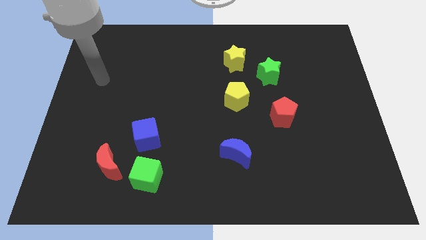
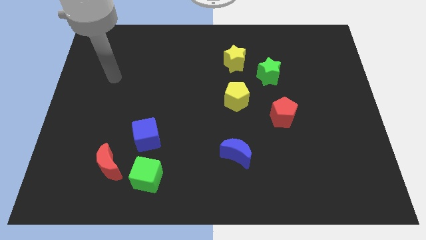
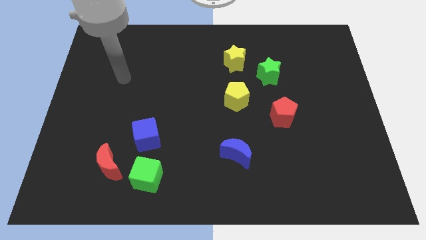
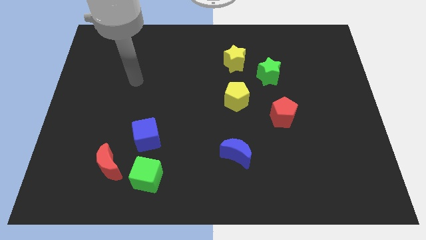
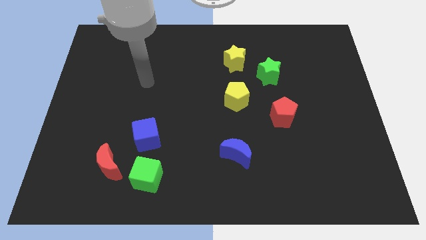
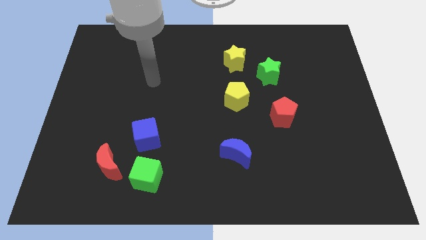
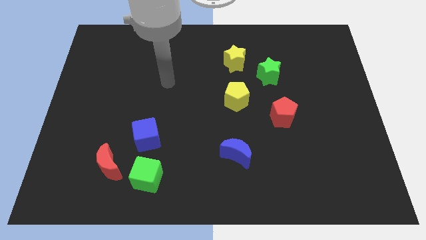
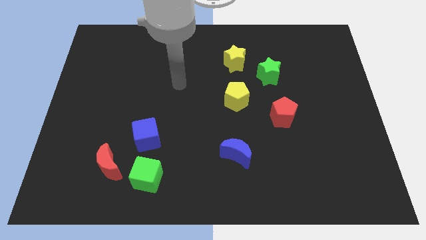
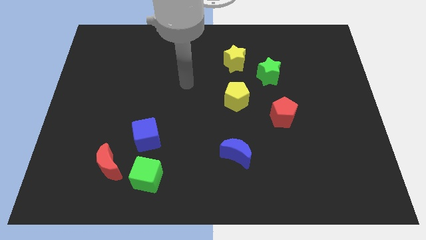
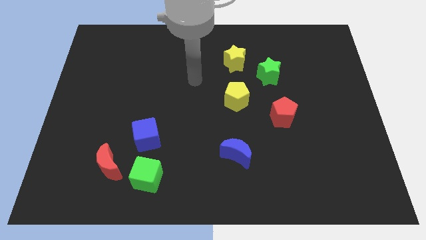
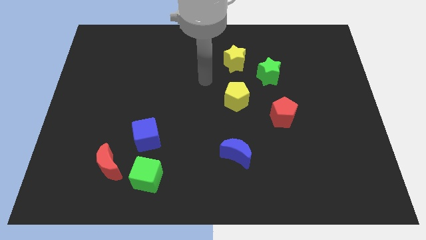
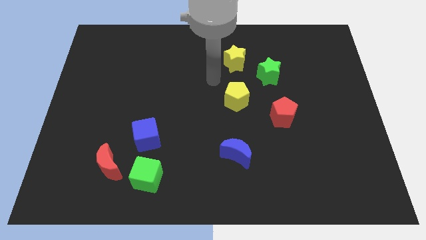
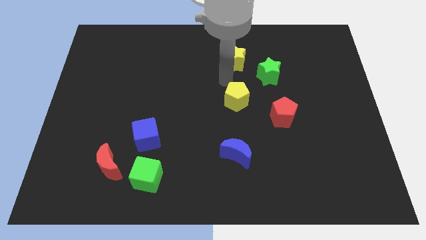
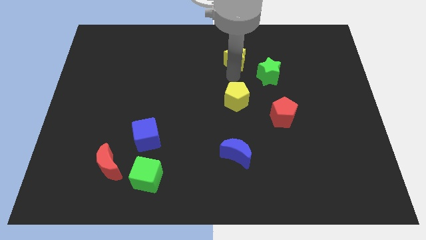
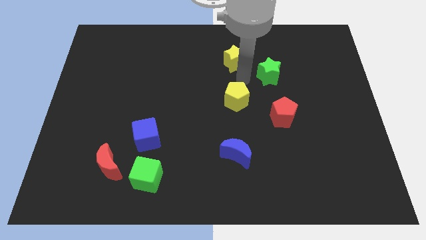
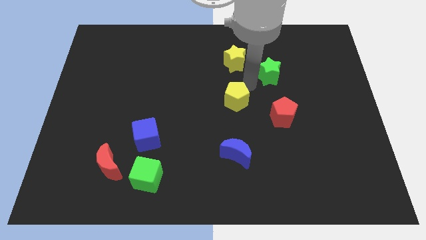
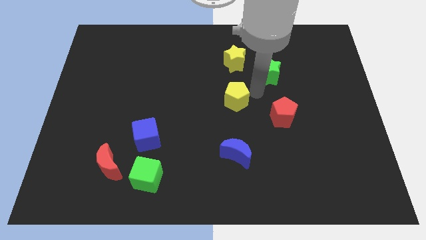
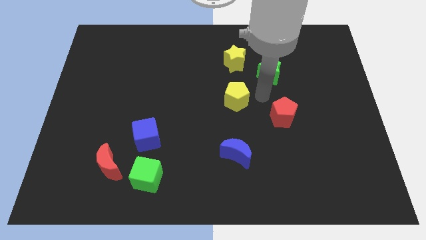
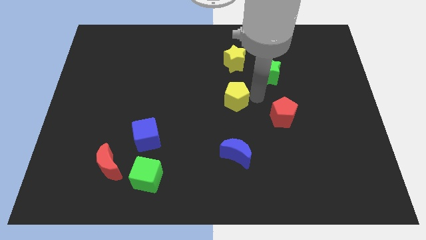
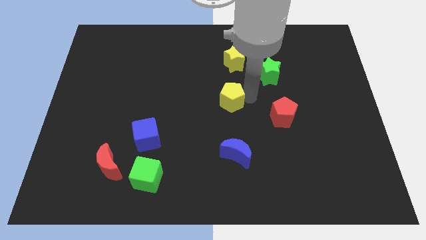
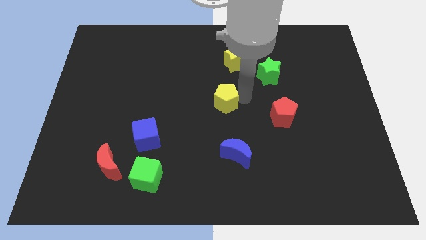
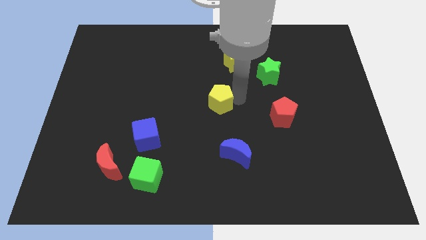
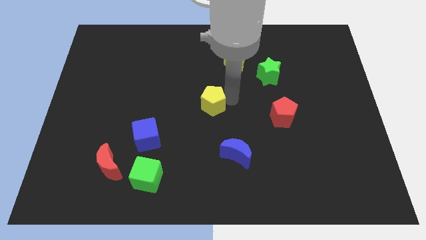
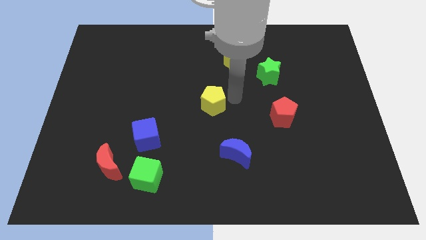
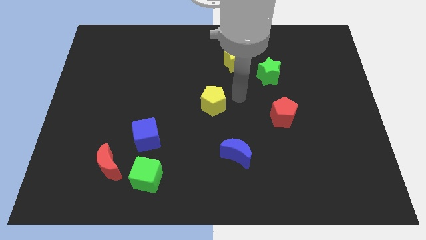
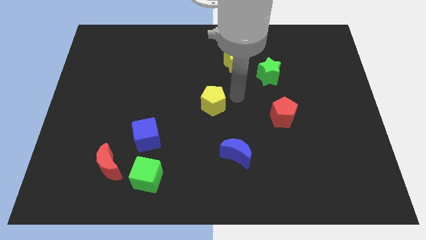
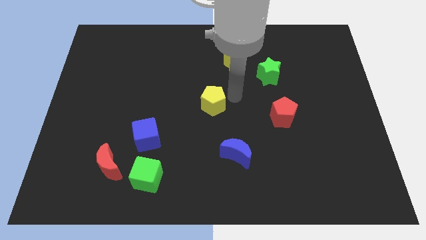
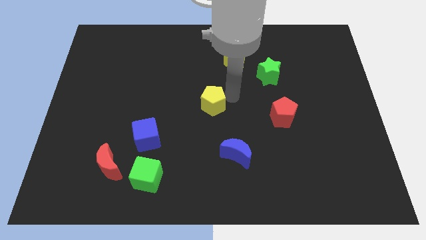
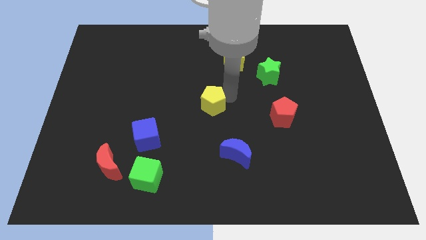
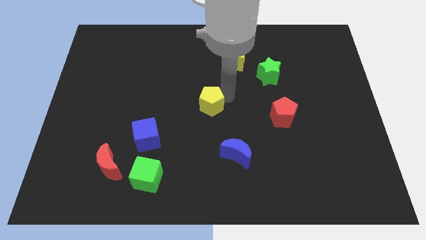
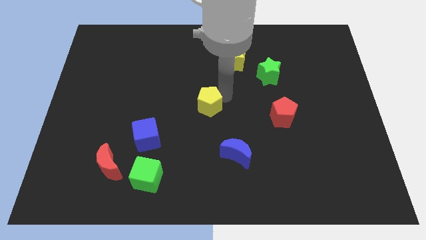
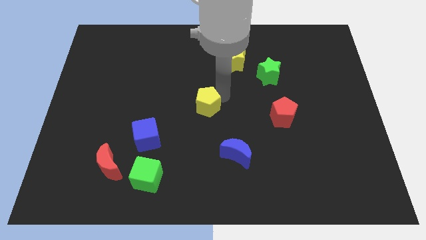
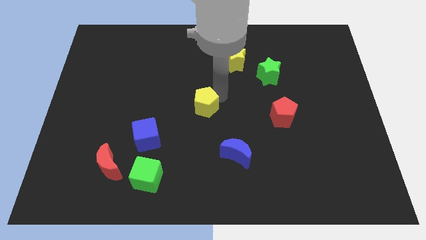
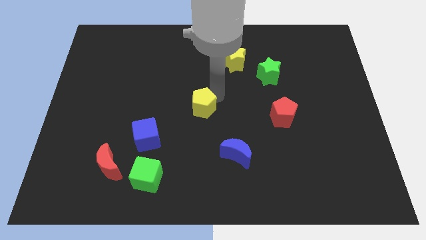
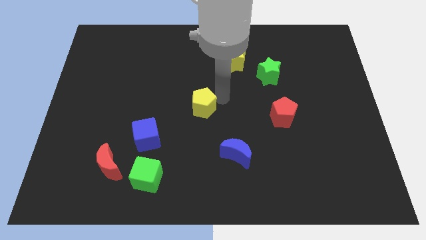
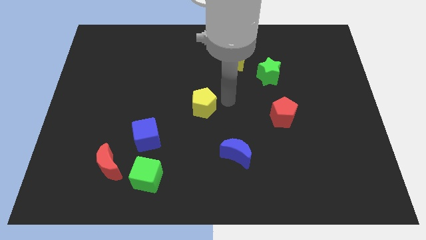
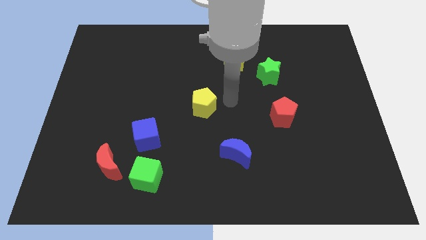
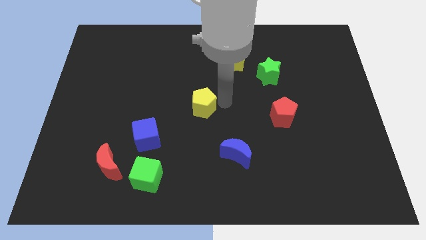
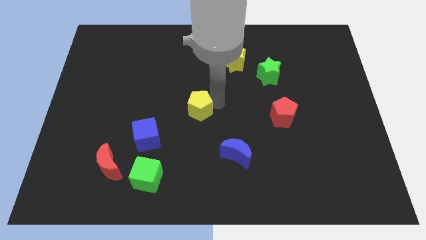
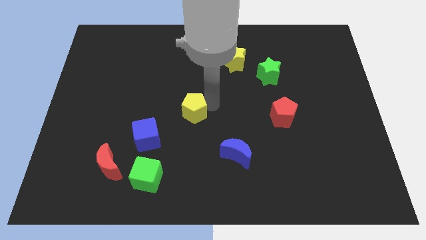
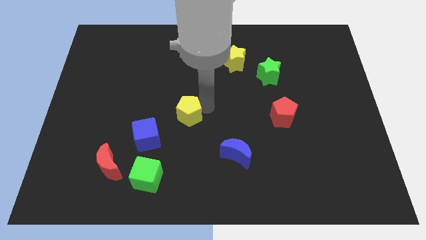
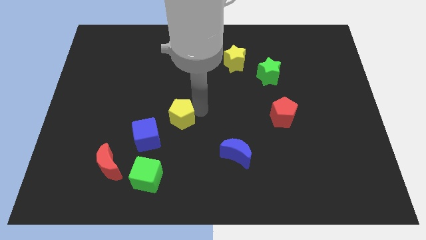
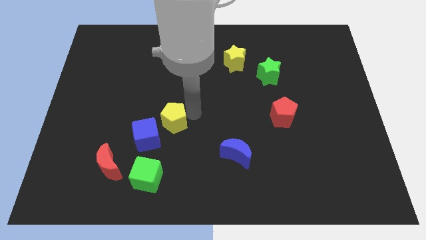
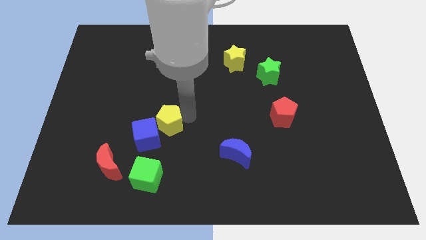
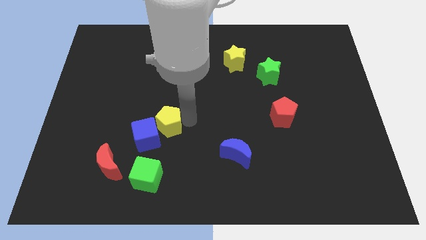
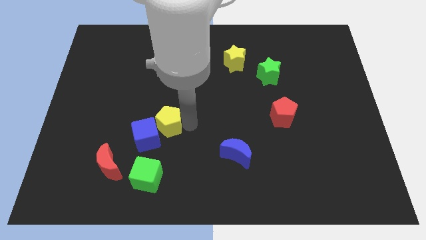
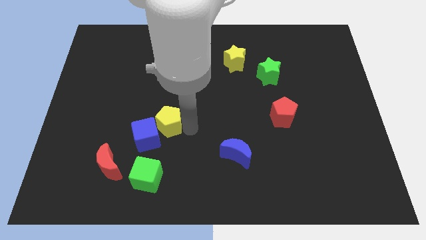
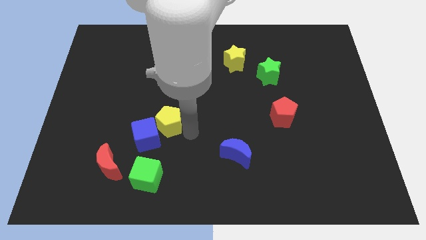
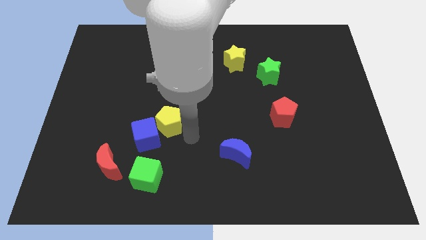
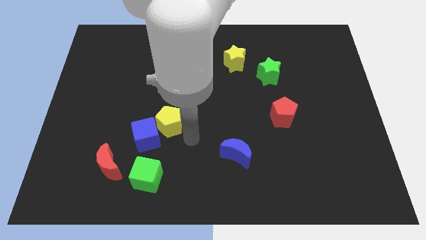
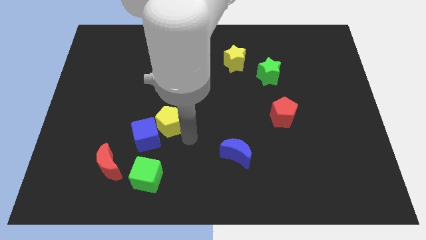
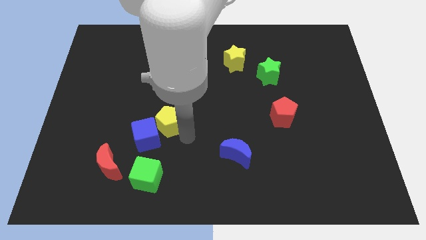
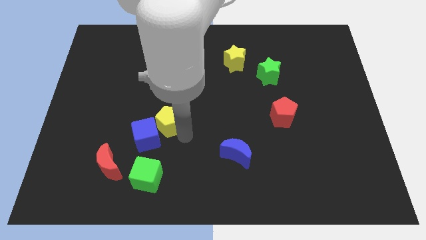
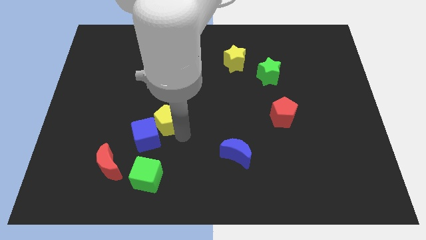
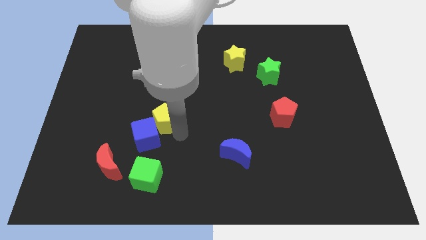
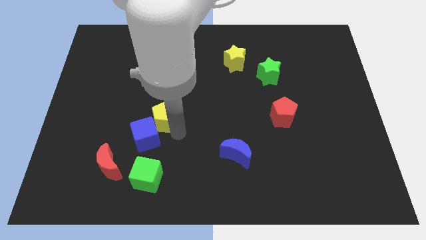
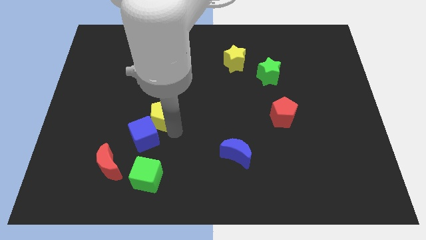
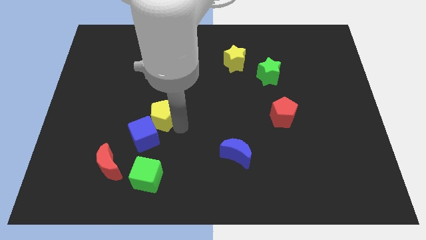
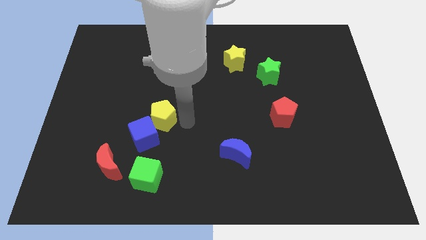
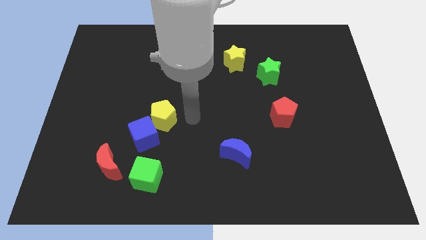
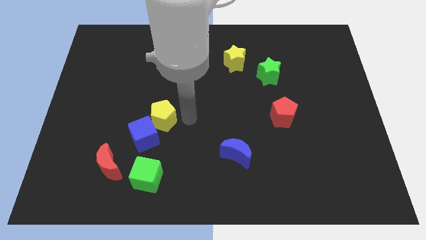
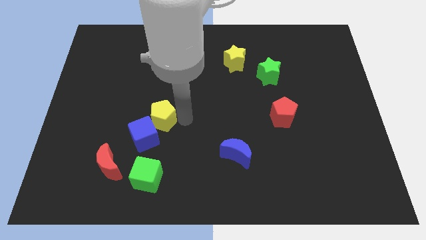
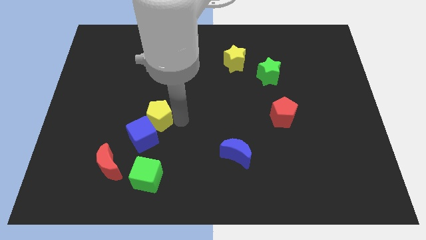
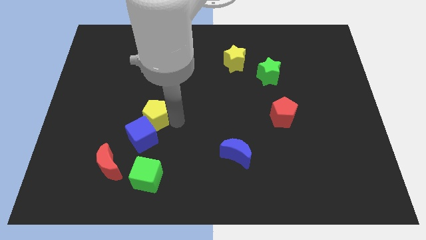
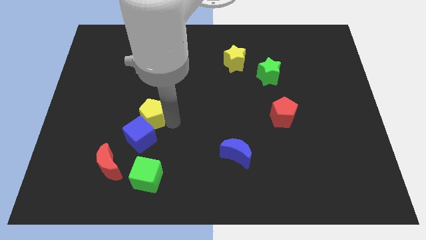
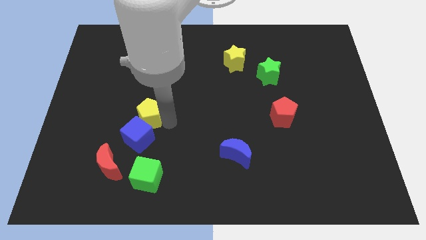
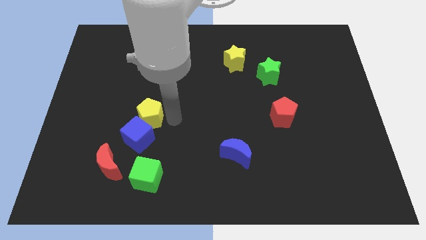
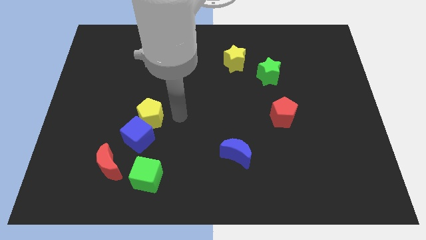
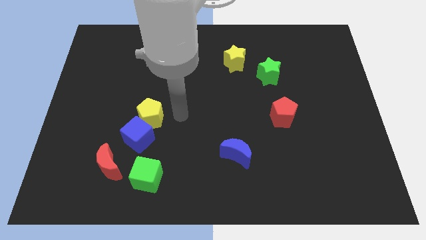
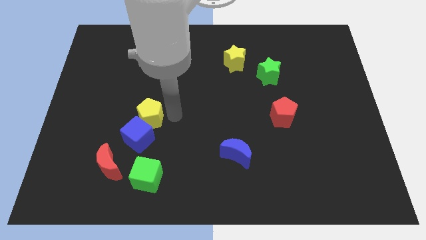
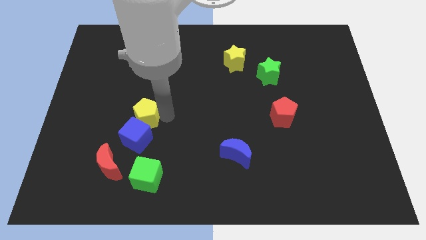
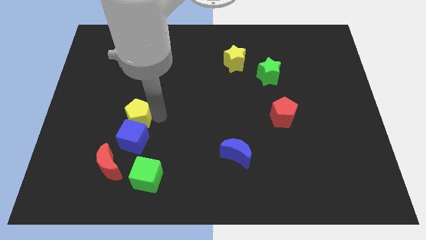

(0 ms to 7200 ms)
push the yellow pentagon diagonally up and to the left of the blue cube
